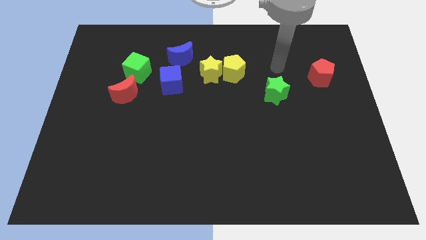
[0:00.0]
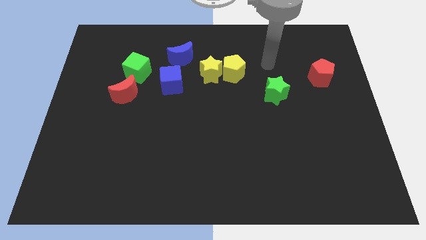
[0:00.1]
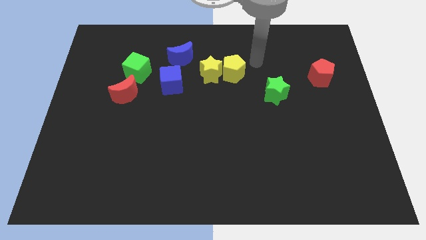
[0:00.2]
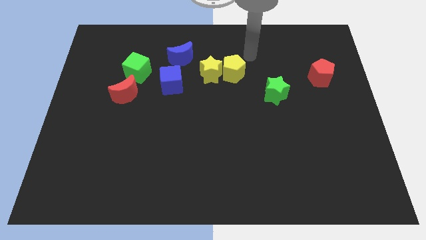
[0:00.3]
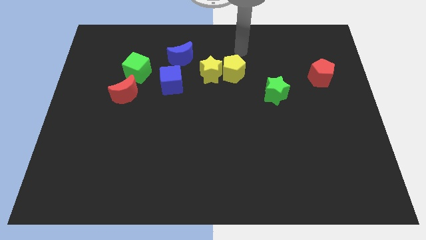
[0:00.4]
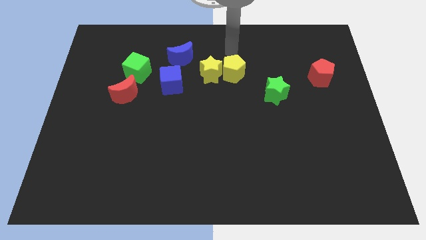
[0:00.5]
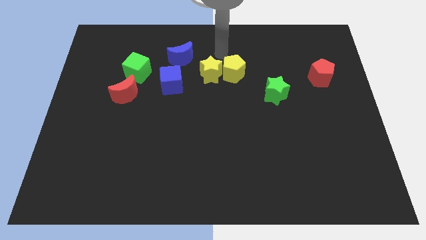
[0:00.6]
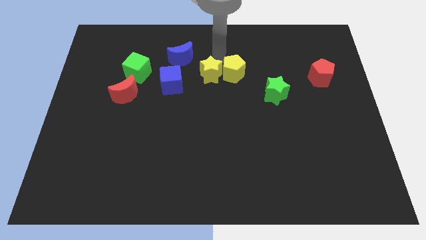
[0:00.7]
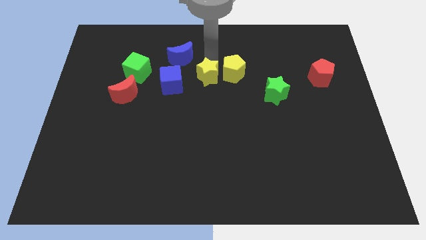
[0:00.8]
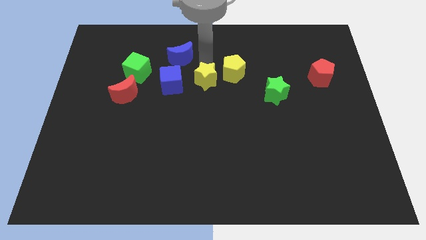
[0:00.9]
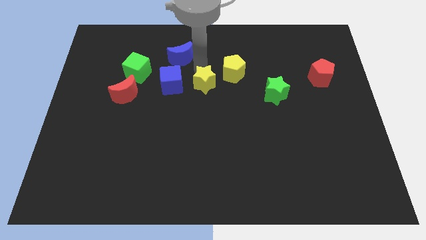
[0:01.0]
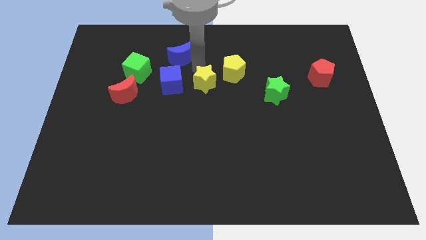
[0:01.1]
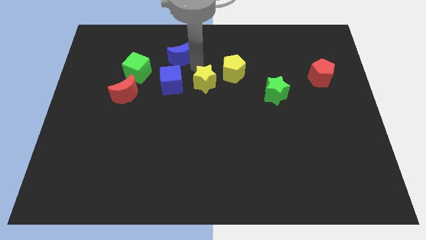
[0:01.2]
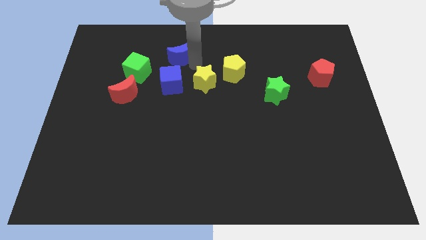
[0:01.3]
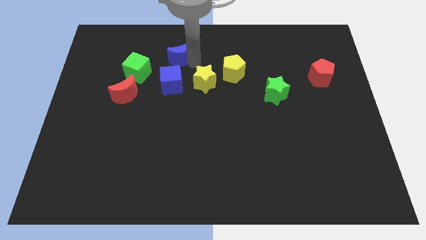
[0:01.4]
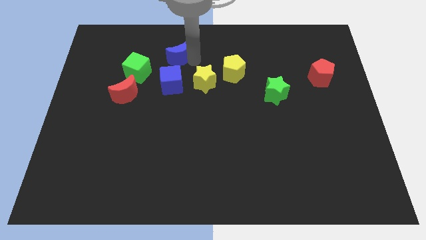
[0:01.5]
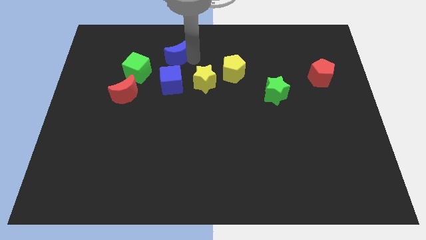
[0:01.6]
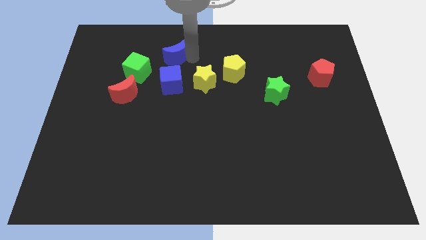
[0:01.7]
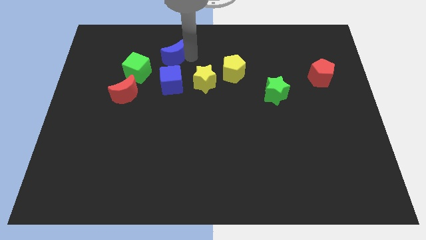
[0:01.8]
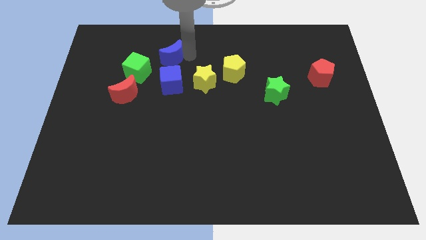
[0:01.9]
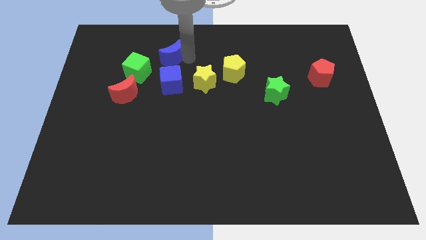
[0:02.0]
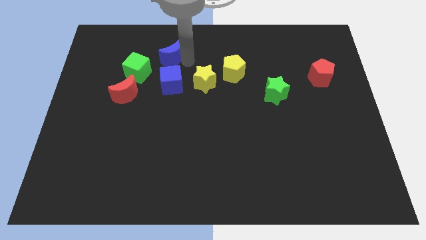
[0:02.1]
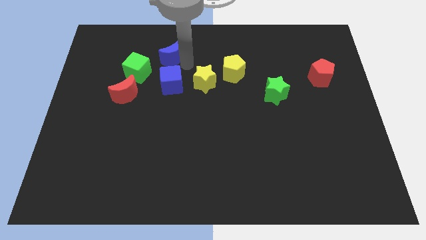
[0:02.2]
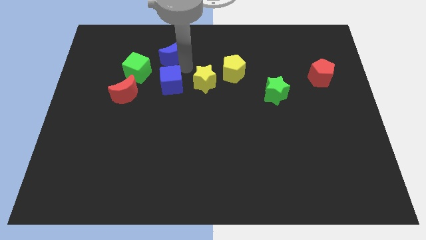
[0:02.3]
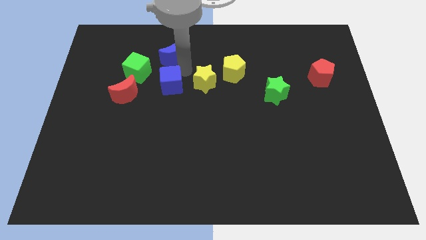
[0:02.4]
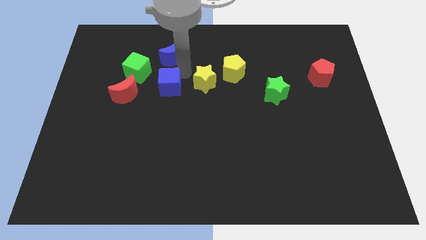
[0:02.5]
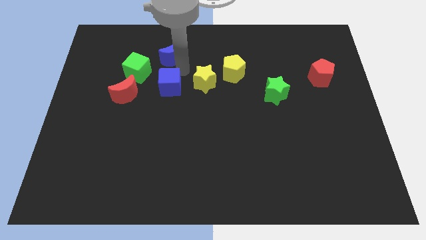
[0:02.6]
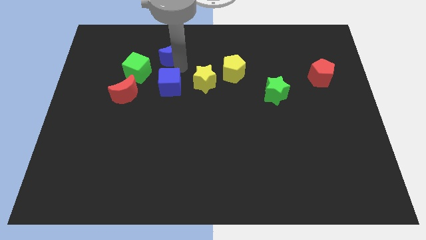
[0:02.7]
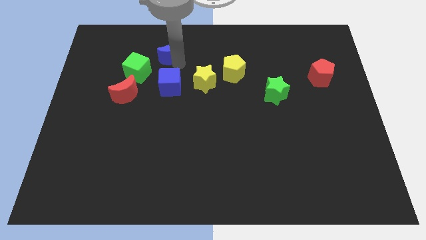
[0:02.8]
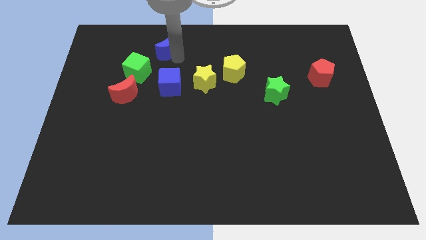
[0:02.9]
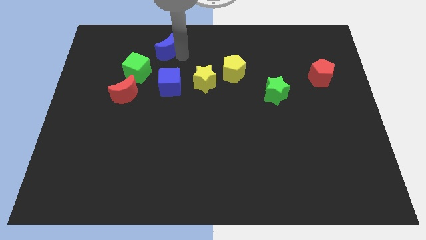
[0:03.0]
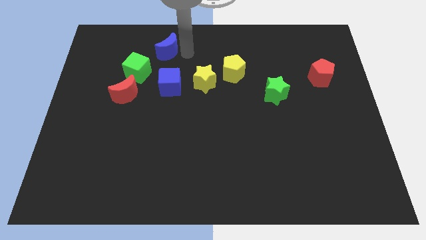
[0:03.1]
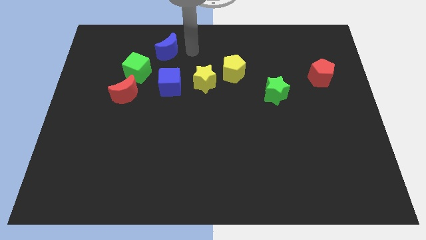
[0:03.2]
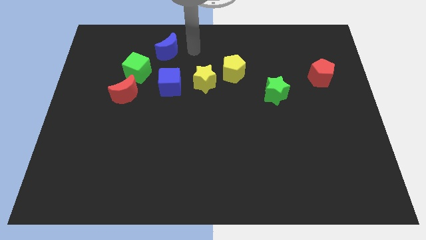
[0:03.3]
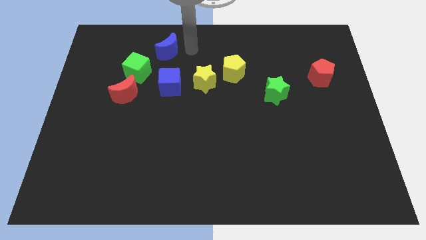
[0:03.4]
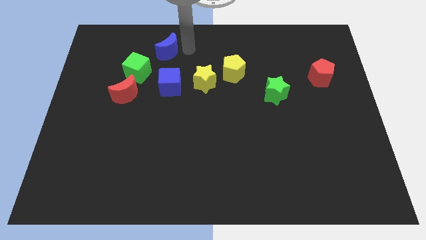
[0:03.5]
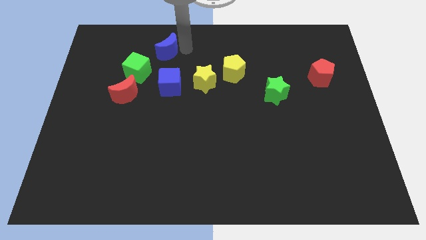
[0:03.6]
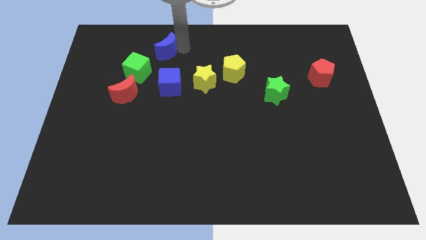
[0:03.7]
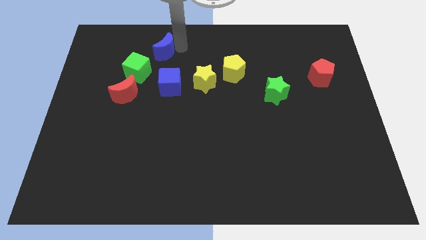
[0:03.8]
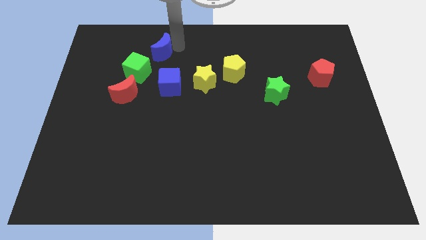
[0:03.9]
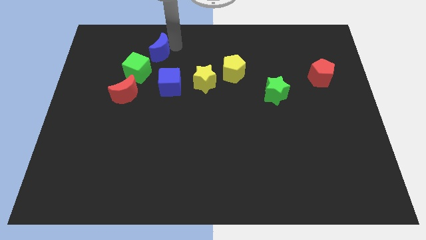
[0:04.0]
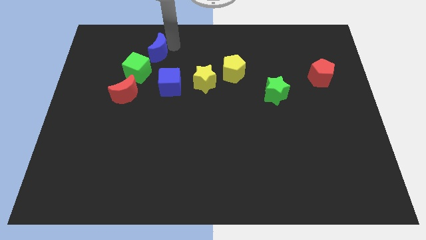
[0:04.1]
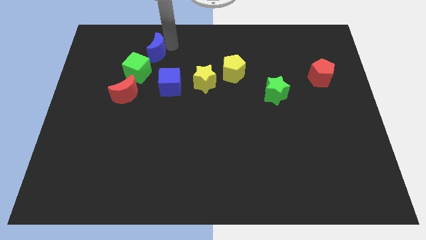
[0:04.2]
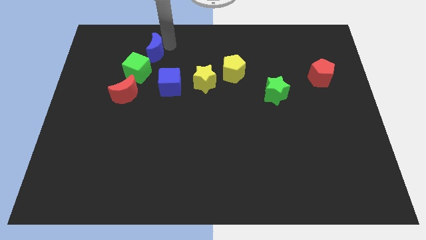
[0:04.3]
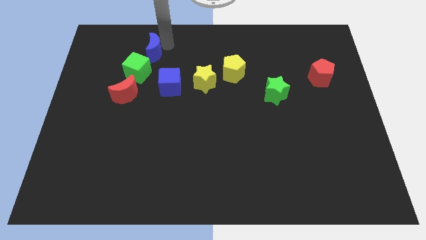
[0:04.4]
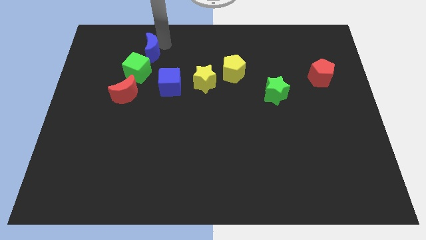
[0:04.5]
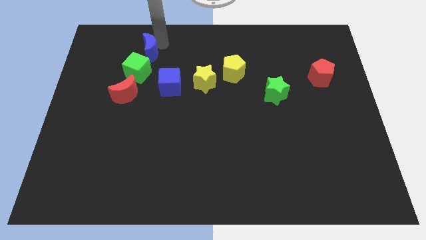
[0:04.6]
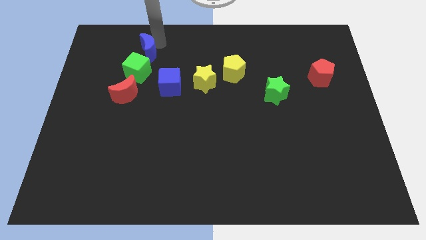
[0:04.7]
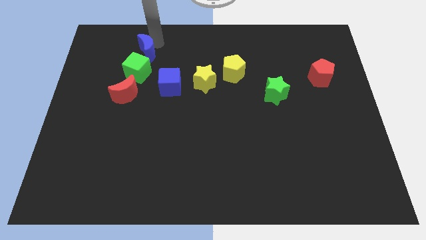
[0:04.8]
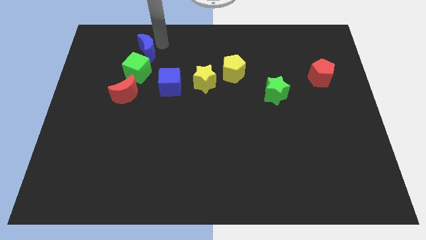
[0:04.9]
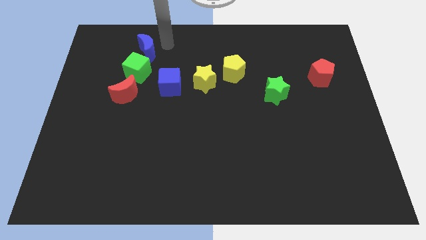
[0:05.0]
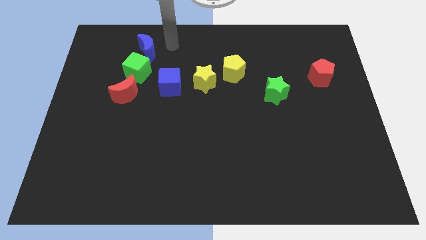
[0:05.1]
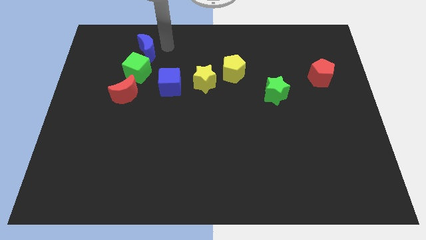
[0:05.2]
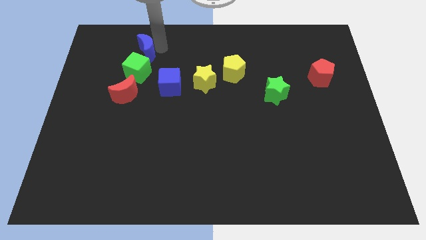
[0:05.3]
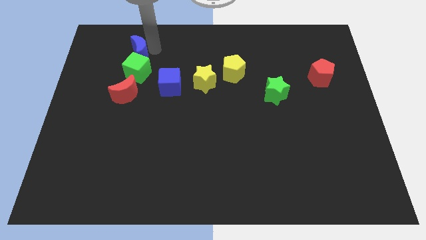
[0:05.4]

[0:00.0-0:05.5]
push the blue moon diagonally up and to the left of the green cube

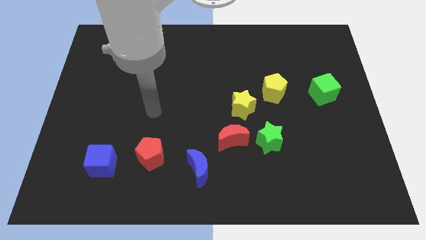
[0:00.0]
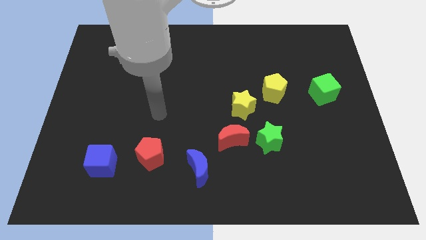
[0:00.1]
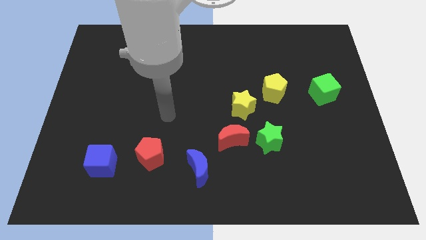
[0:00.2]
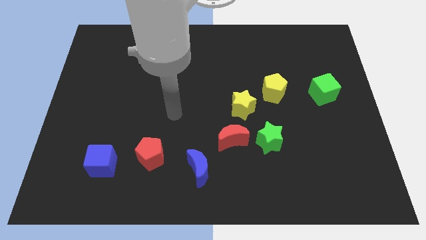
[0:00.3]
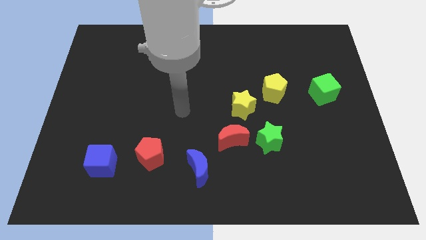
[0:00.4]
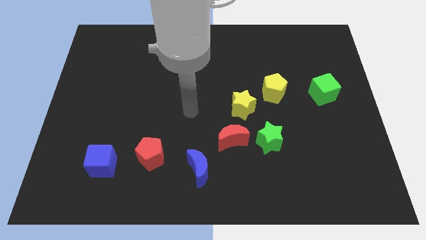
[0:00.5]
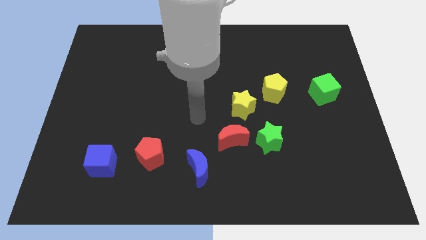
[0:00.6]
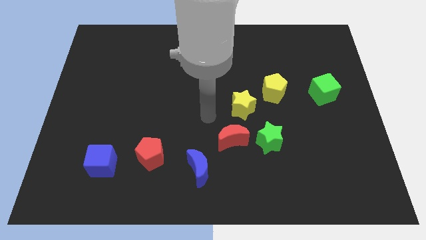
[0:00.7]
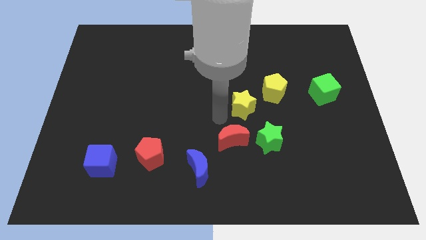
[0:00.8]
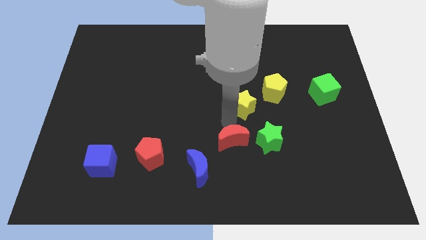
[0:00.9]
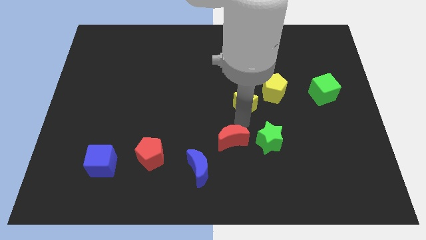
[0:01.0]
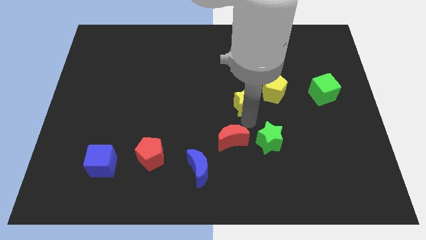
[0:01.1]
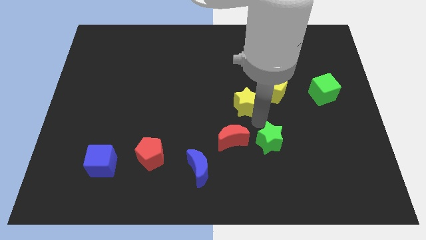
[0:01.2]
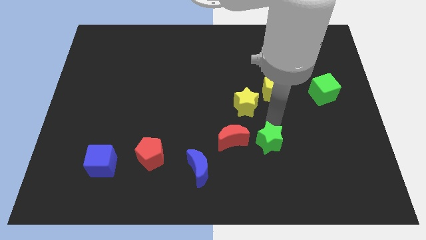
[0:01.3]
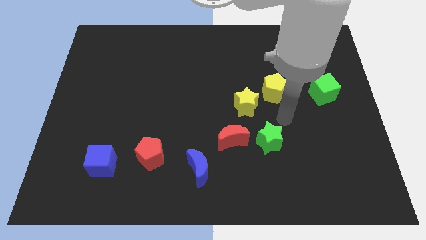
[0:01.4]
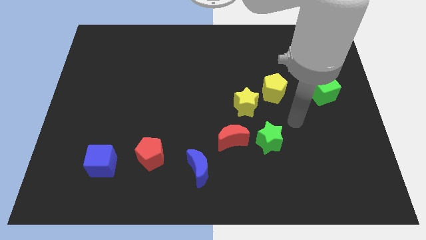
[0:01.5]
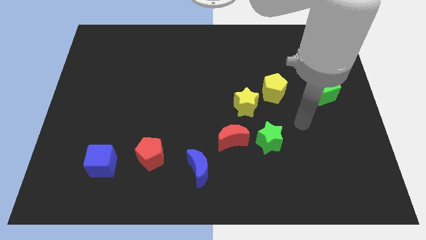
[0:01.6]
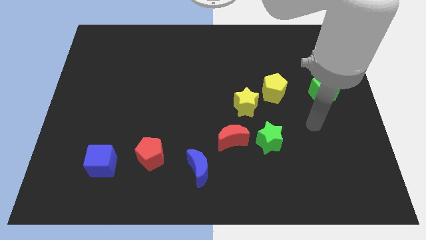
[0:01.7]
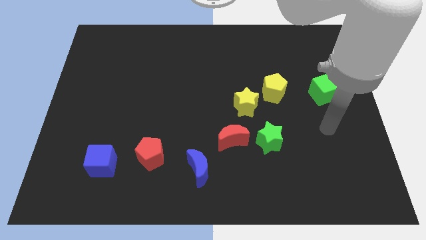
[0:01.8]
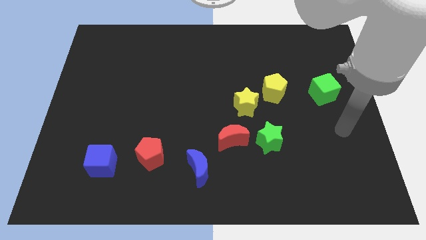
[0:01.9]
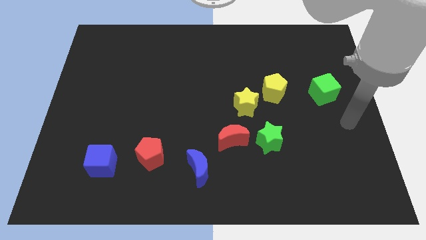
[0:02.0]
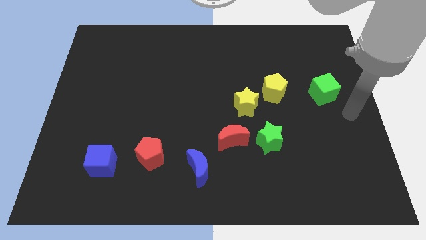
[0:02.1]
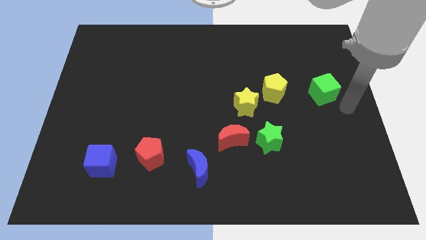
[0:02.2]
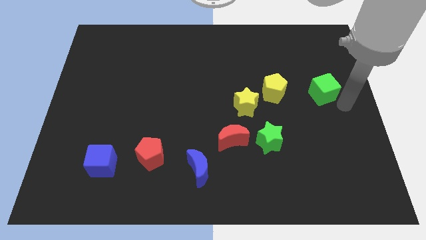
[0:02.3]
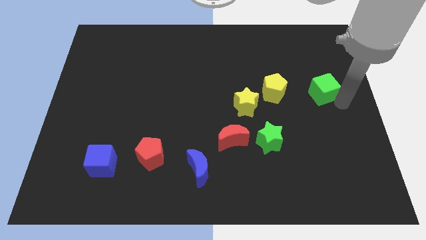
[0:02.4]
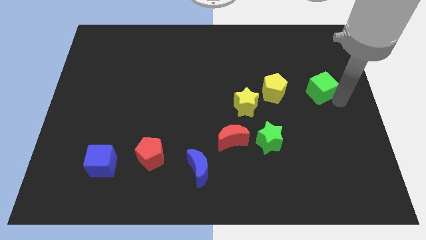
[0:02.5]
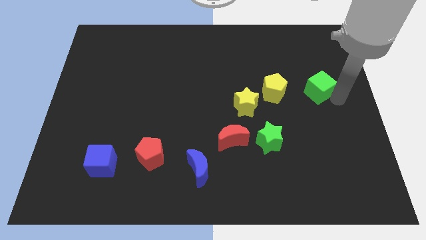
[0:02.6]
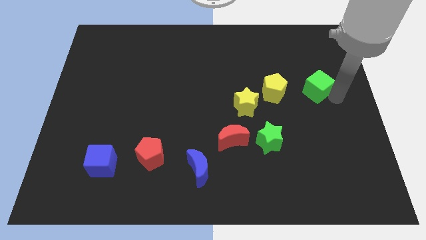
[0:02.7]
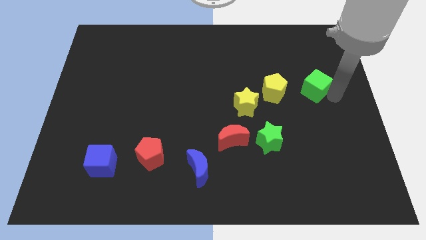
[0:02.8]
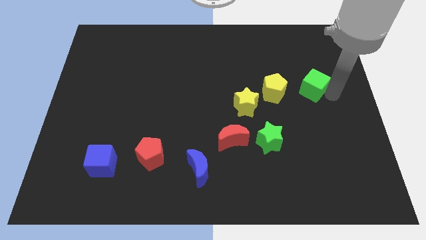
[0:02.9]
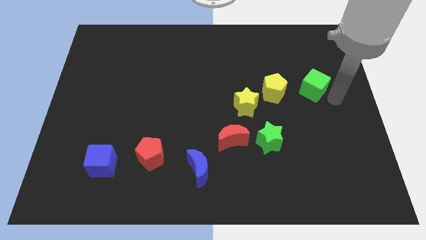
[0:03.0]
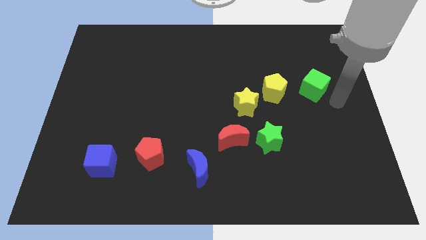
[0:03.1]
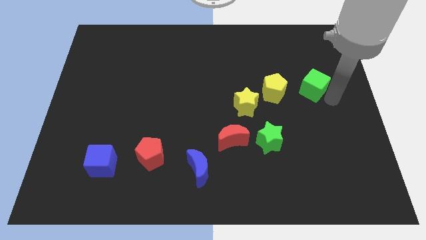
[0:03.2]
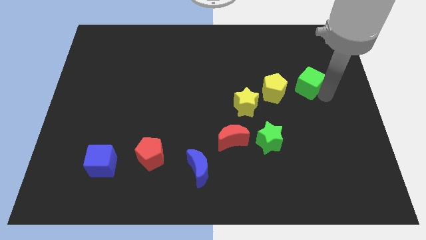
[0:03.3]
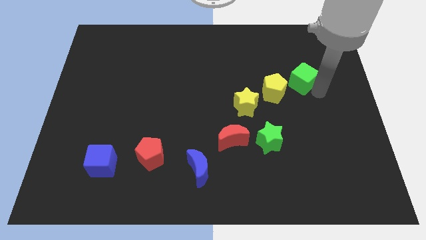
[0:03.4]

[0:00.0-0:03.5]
push the green cube diagonally up and to the right of the yellow pentagon
